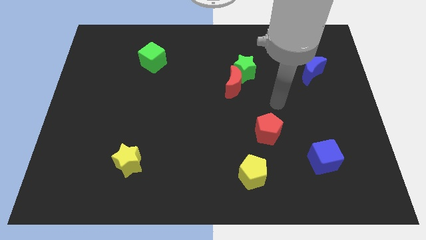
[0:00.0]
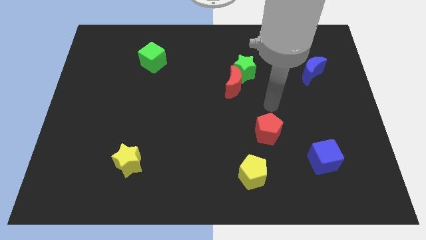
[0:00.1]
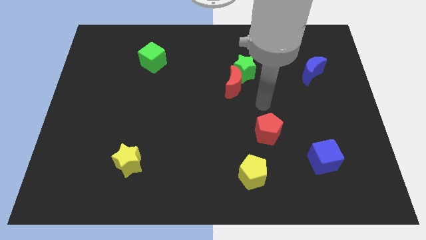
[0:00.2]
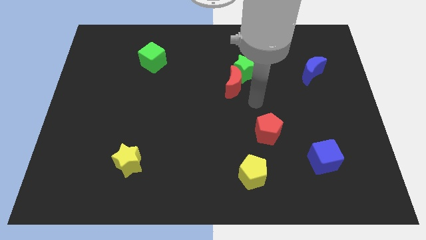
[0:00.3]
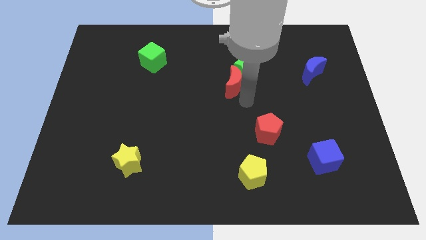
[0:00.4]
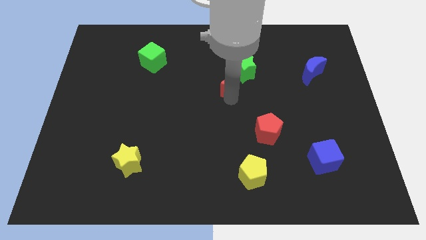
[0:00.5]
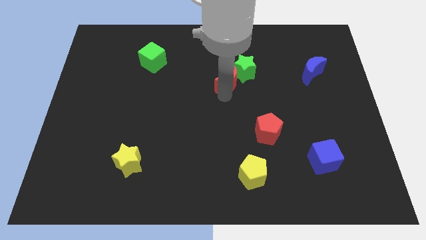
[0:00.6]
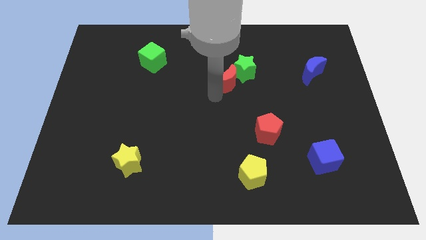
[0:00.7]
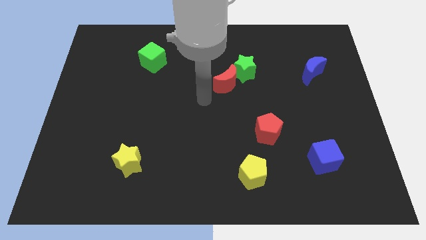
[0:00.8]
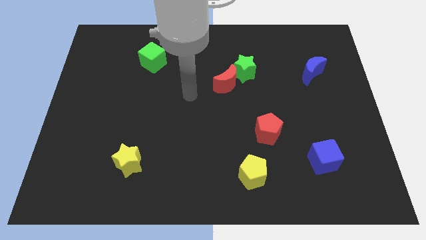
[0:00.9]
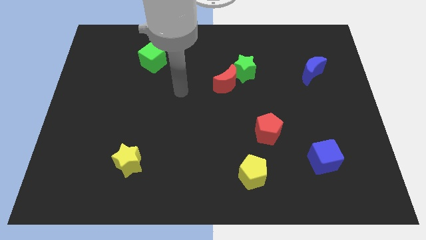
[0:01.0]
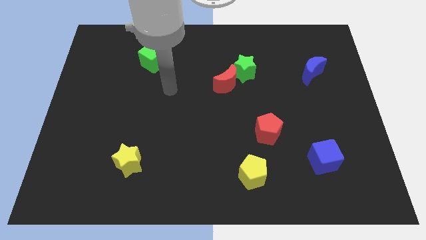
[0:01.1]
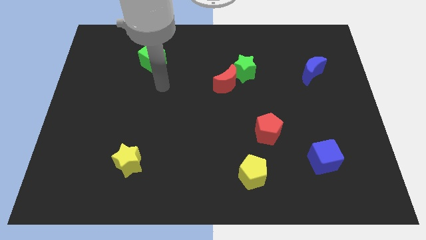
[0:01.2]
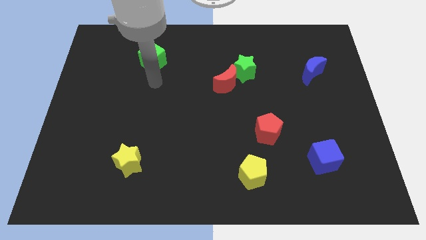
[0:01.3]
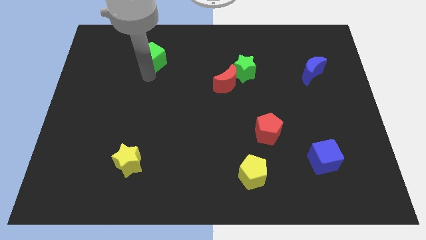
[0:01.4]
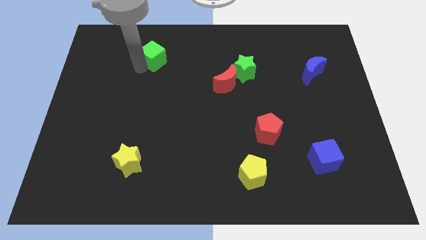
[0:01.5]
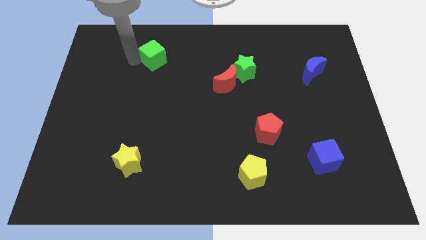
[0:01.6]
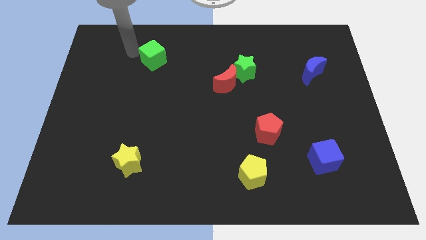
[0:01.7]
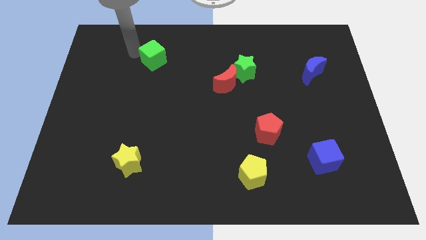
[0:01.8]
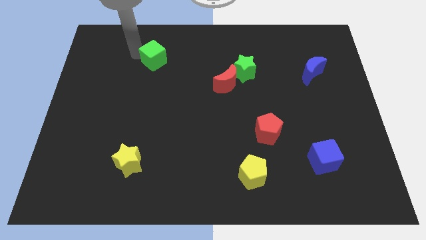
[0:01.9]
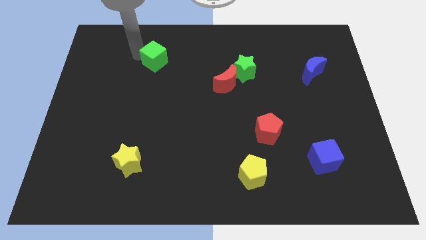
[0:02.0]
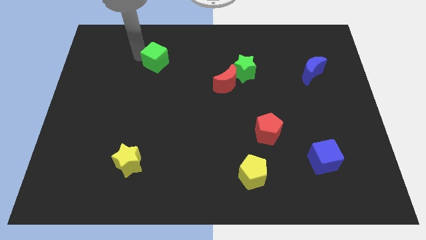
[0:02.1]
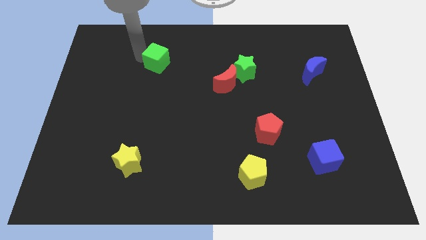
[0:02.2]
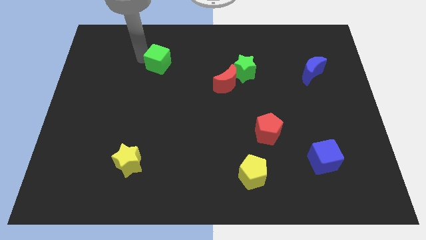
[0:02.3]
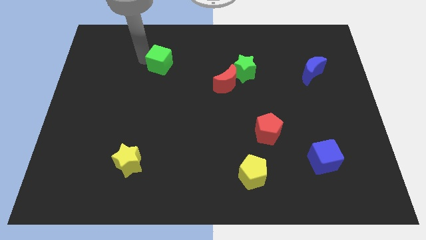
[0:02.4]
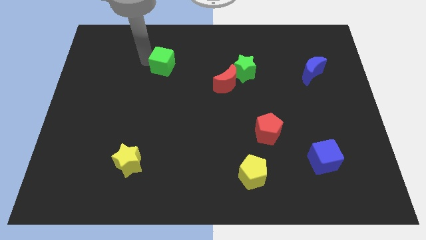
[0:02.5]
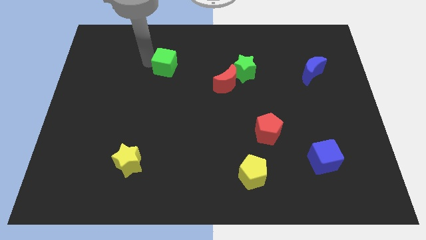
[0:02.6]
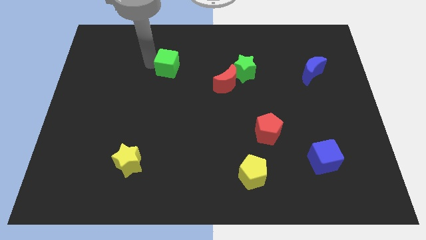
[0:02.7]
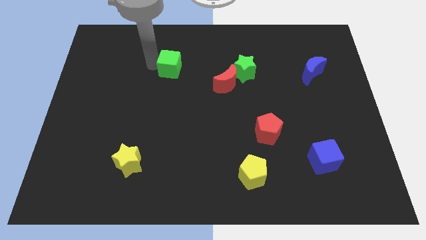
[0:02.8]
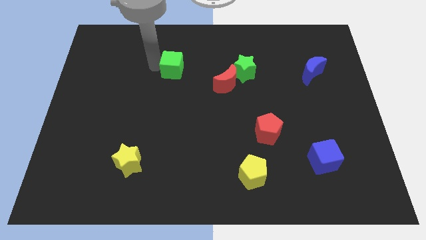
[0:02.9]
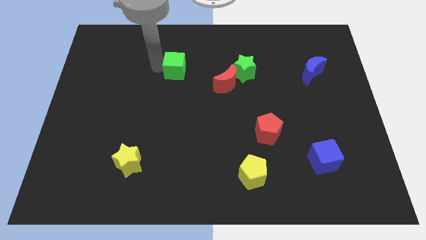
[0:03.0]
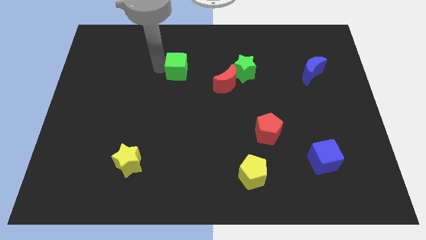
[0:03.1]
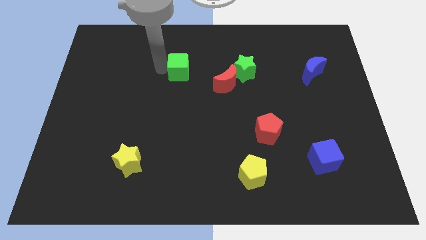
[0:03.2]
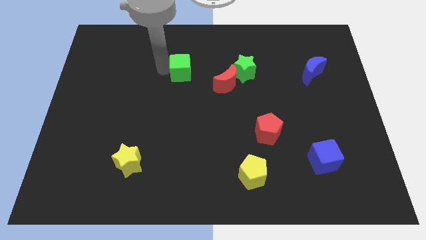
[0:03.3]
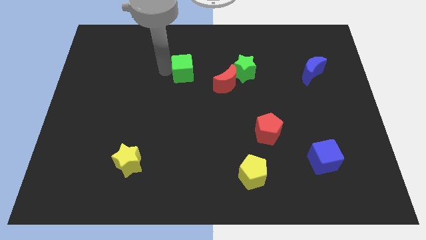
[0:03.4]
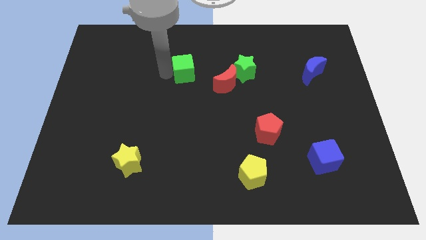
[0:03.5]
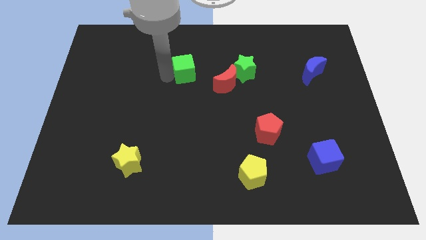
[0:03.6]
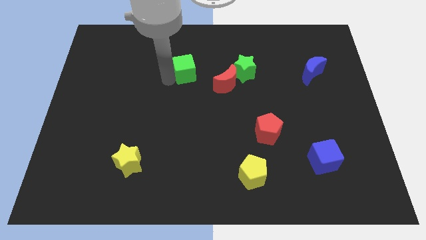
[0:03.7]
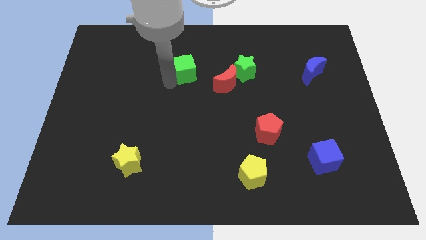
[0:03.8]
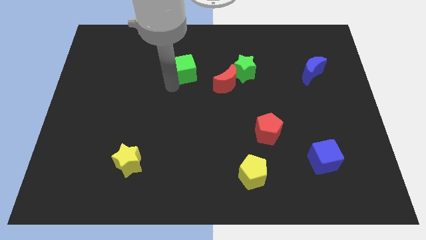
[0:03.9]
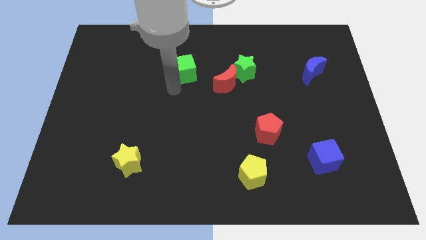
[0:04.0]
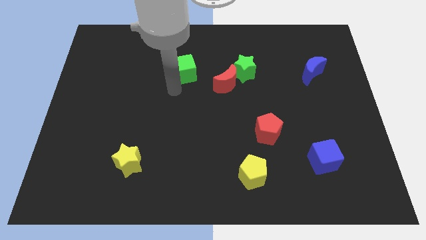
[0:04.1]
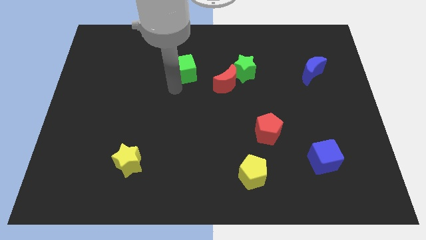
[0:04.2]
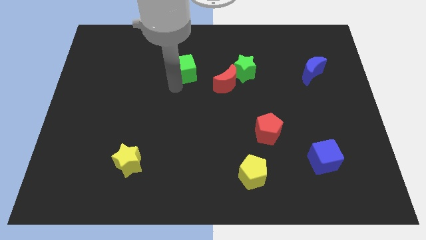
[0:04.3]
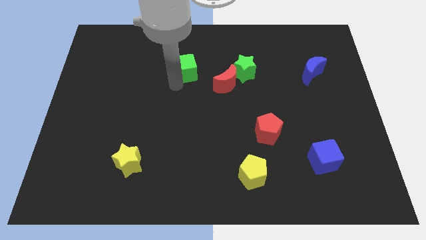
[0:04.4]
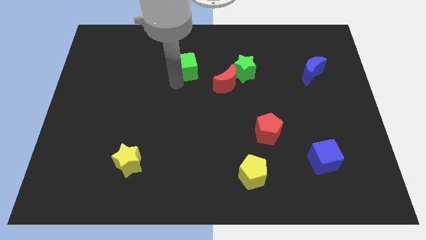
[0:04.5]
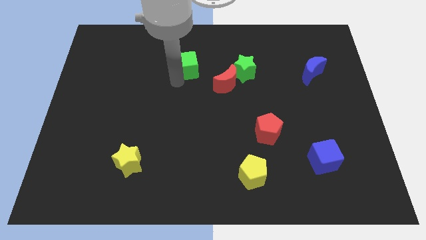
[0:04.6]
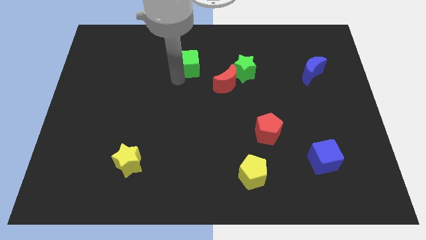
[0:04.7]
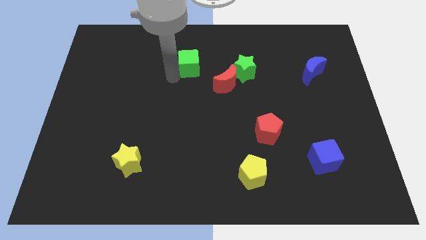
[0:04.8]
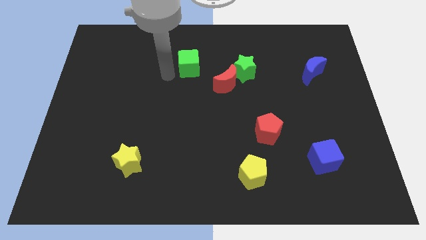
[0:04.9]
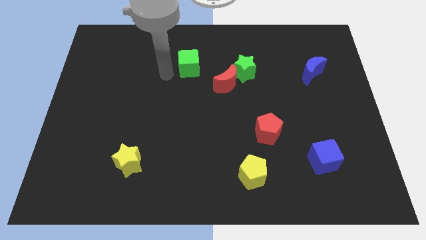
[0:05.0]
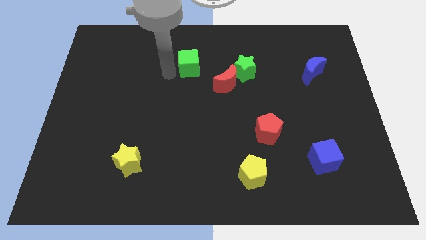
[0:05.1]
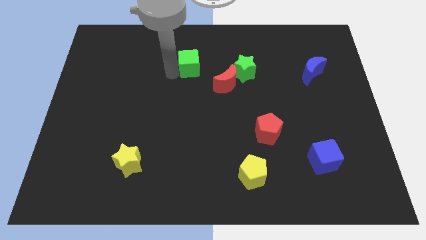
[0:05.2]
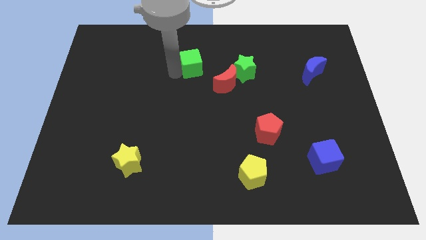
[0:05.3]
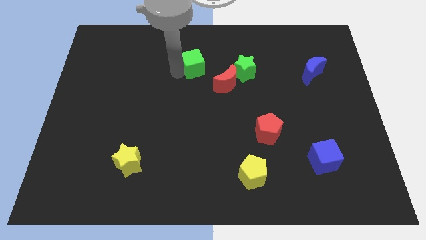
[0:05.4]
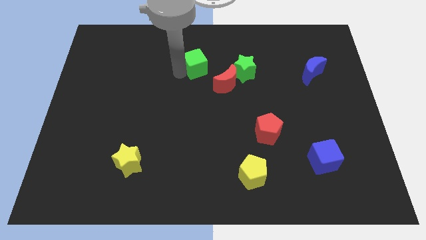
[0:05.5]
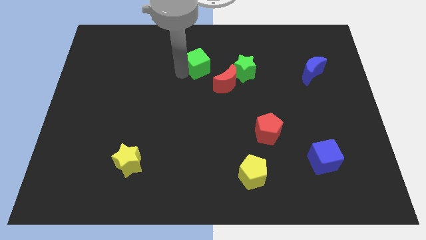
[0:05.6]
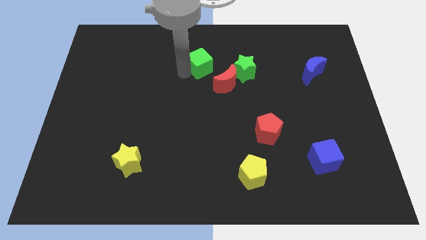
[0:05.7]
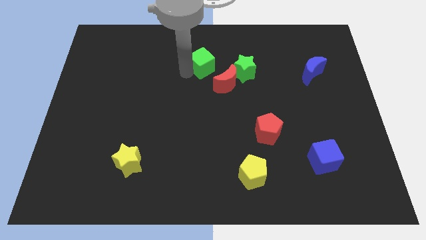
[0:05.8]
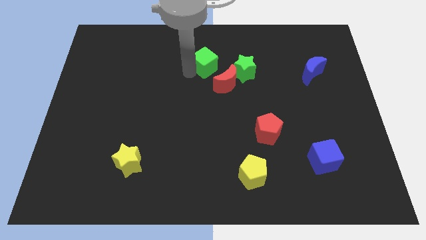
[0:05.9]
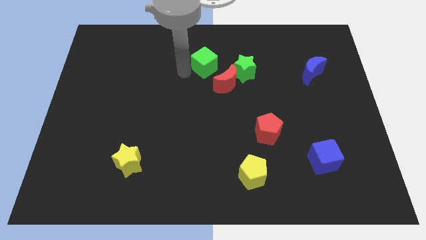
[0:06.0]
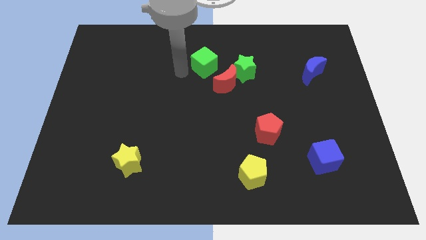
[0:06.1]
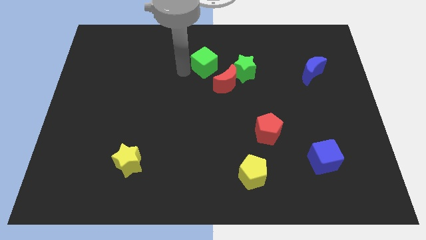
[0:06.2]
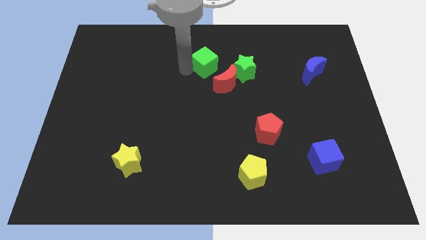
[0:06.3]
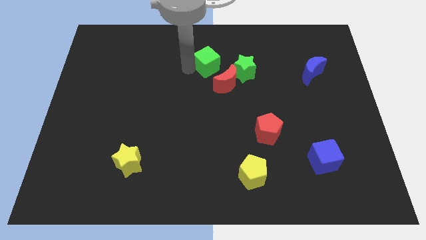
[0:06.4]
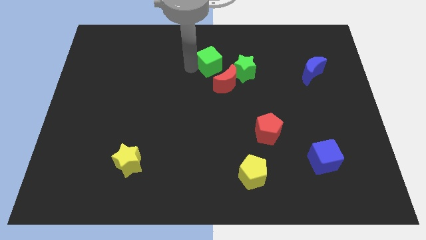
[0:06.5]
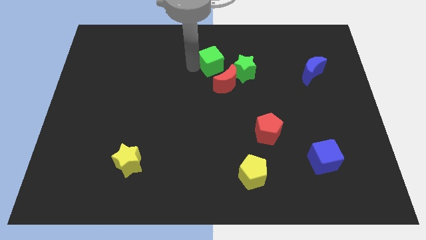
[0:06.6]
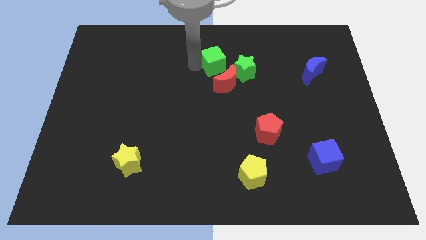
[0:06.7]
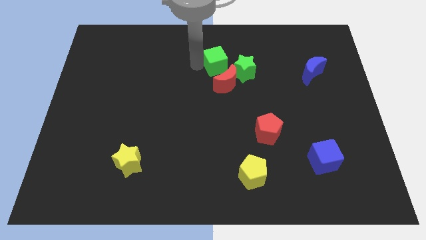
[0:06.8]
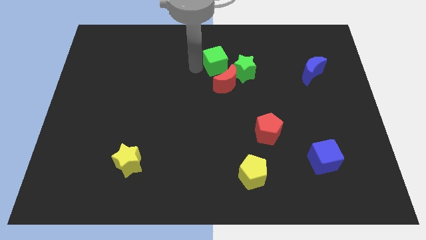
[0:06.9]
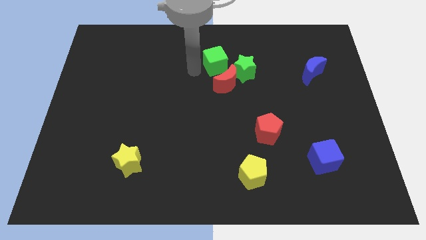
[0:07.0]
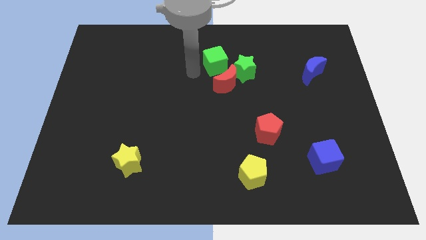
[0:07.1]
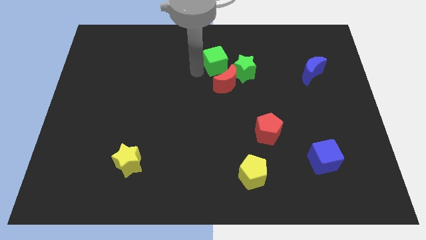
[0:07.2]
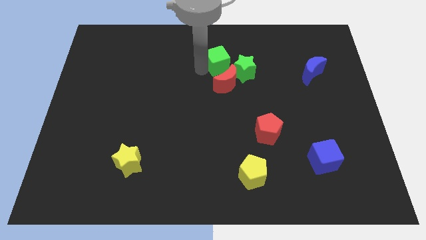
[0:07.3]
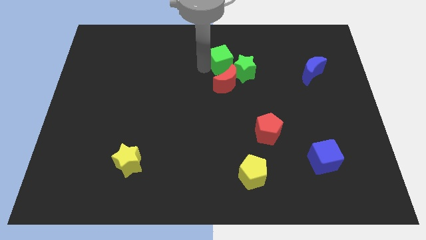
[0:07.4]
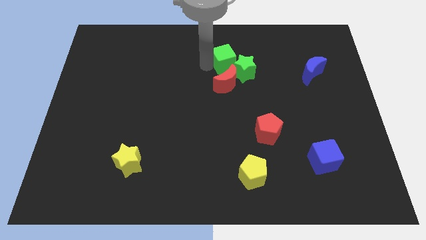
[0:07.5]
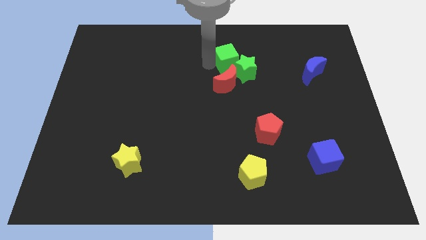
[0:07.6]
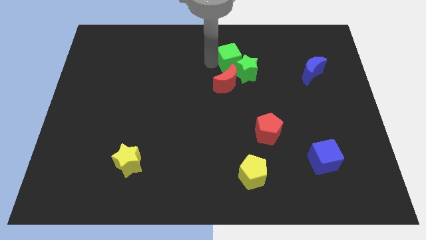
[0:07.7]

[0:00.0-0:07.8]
push the green cube to the right

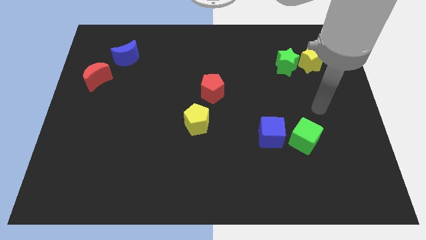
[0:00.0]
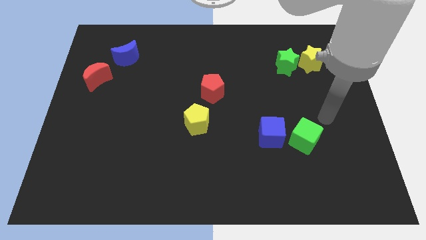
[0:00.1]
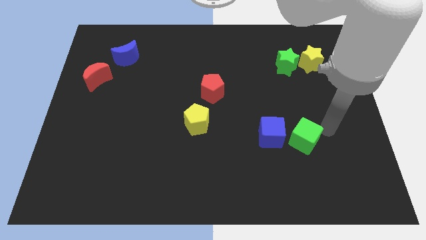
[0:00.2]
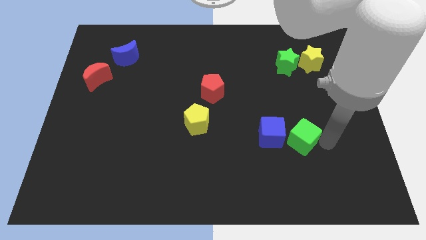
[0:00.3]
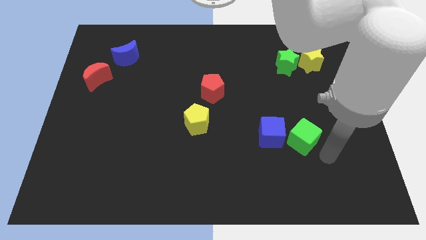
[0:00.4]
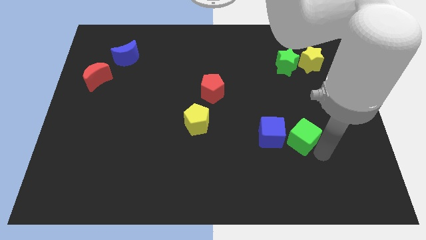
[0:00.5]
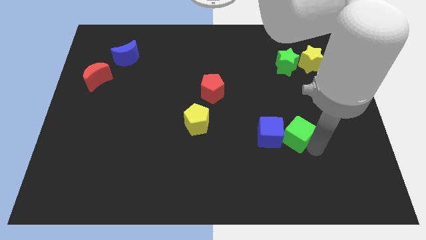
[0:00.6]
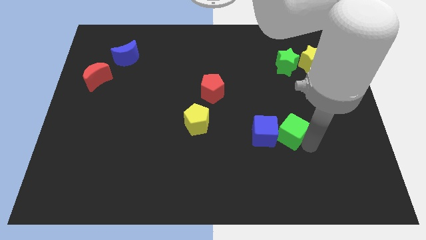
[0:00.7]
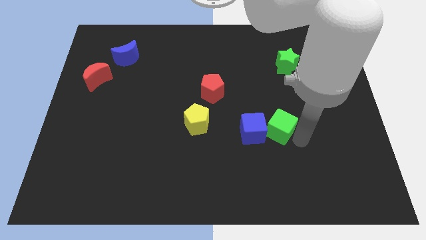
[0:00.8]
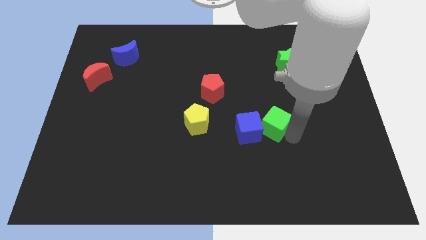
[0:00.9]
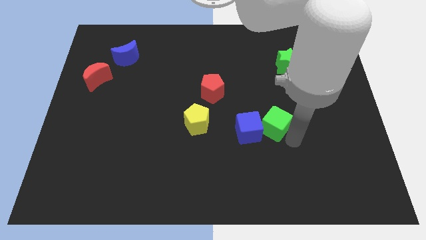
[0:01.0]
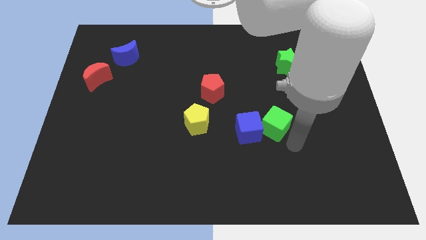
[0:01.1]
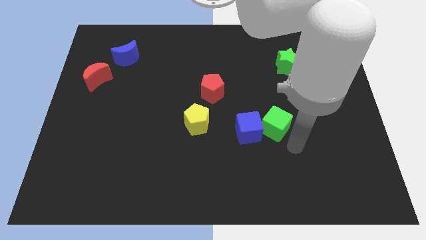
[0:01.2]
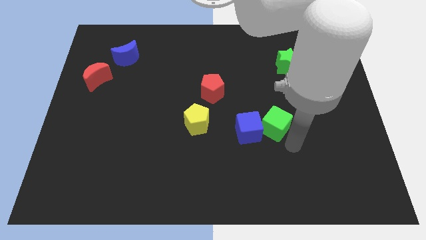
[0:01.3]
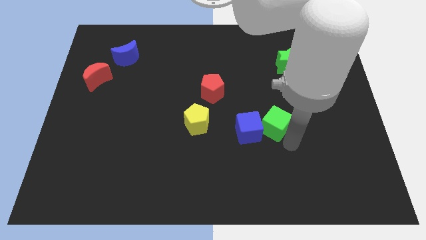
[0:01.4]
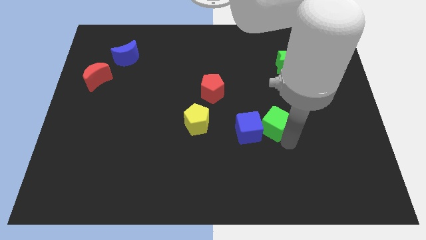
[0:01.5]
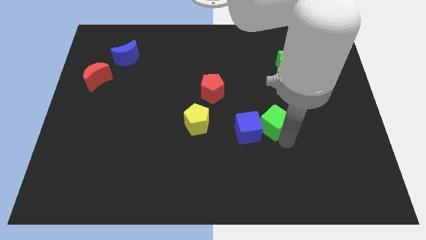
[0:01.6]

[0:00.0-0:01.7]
move the green cube diagonally upwards and left slightly
